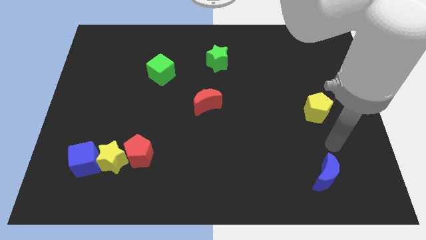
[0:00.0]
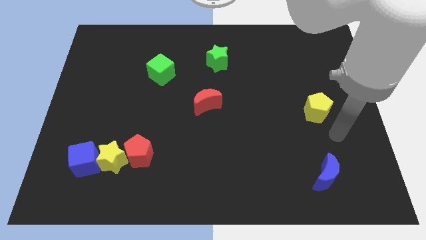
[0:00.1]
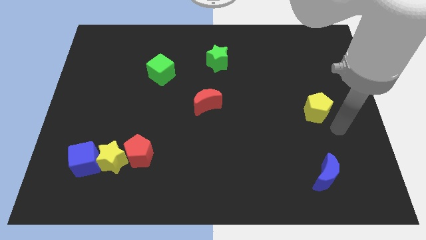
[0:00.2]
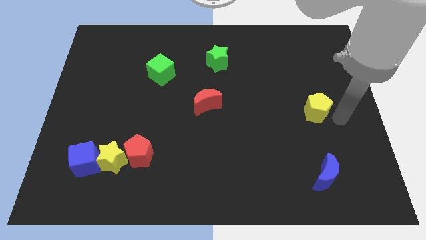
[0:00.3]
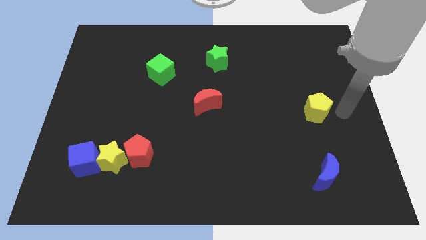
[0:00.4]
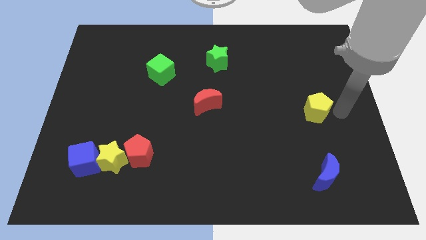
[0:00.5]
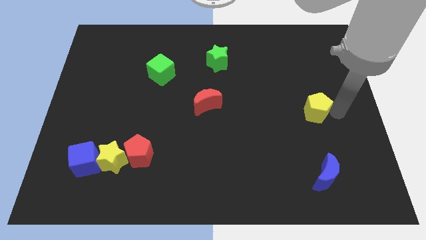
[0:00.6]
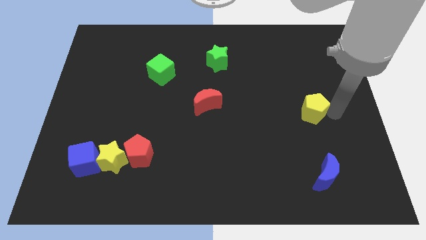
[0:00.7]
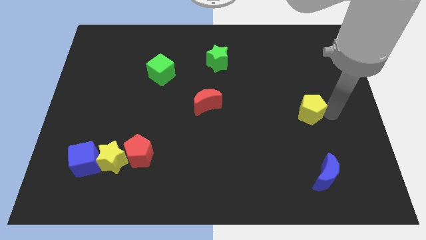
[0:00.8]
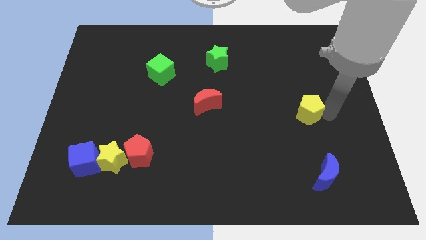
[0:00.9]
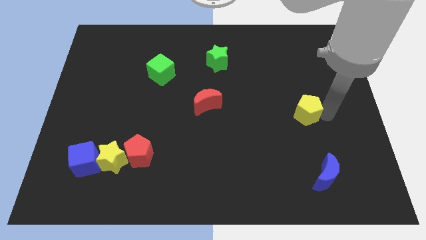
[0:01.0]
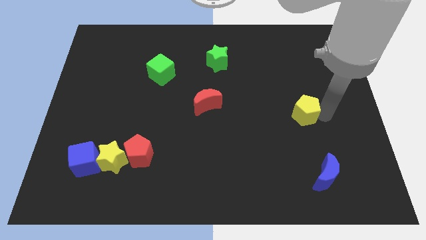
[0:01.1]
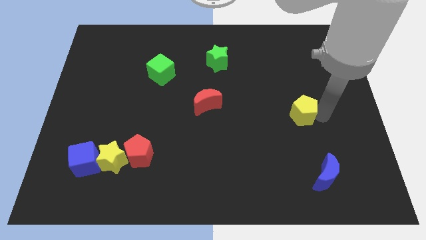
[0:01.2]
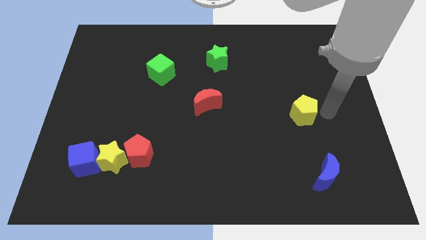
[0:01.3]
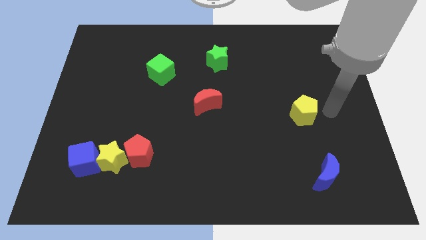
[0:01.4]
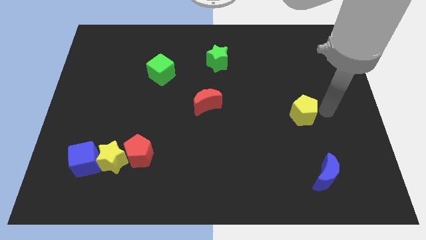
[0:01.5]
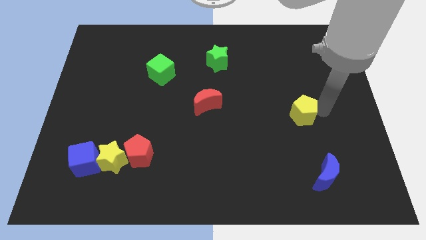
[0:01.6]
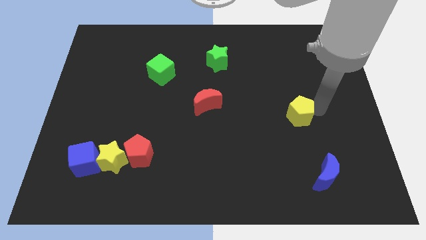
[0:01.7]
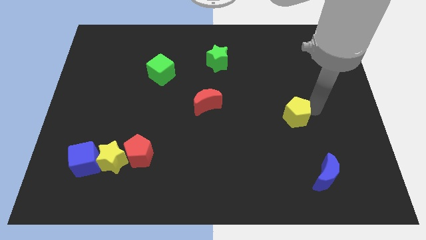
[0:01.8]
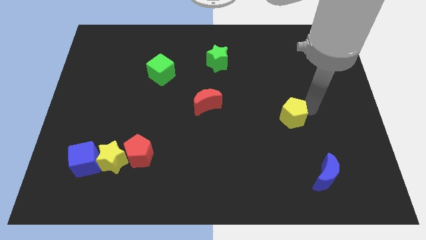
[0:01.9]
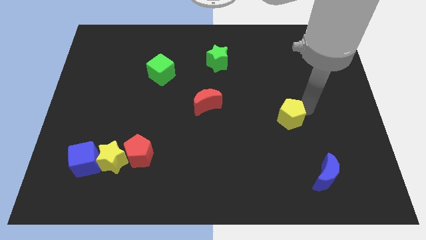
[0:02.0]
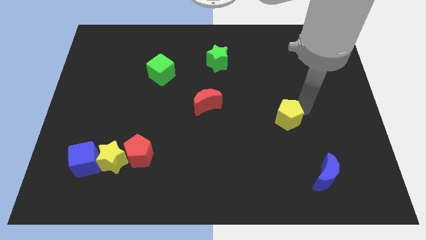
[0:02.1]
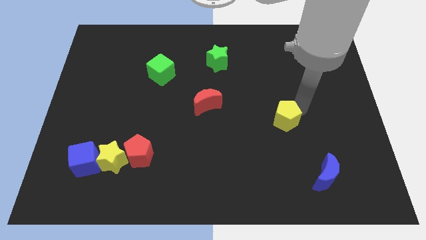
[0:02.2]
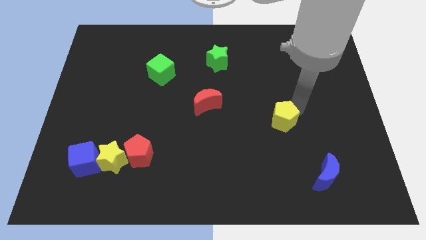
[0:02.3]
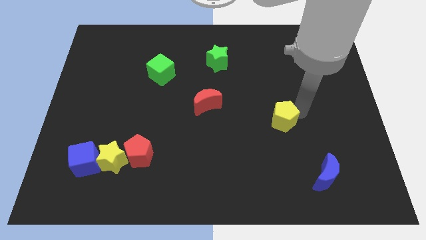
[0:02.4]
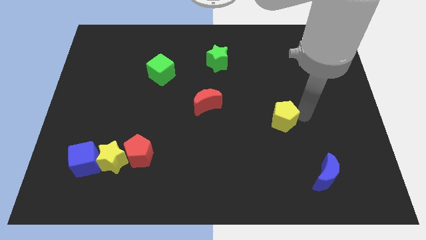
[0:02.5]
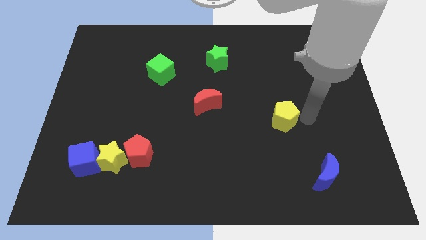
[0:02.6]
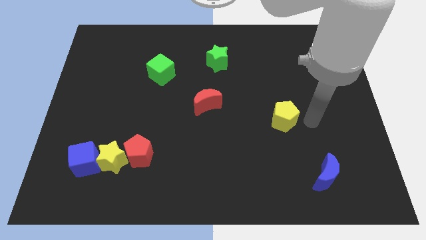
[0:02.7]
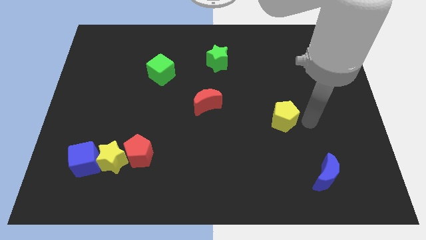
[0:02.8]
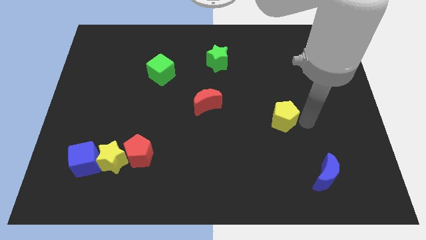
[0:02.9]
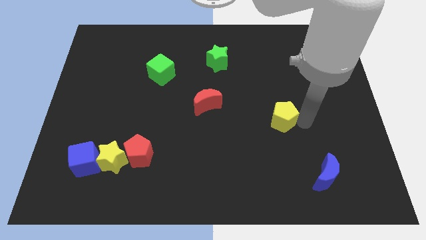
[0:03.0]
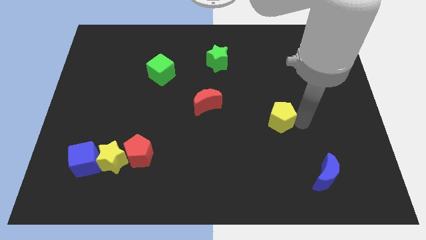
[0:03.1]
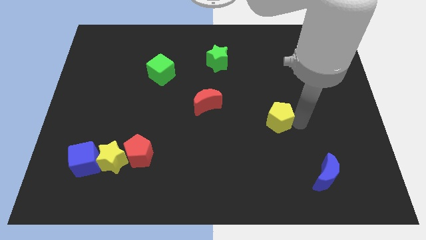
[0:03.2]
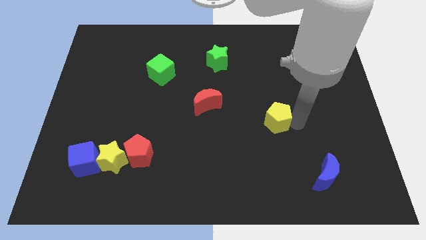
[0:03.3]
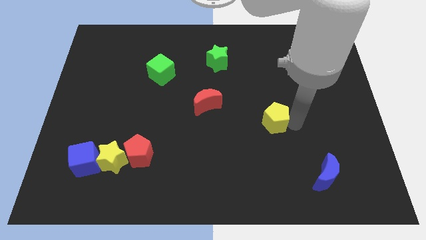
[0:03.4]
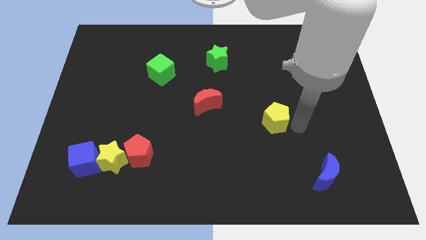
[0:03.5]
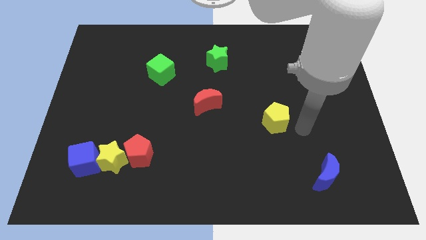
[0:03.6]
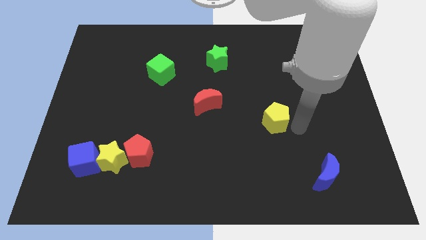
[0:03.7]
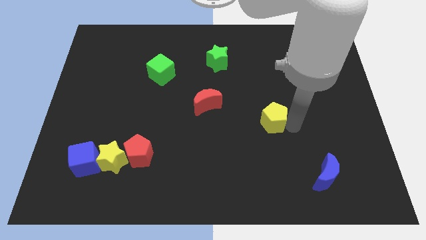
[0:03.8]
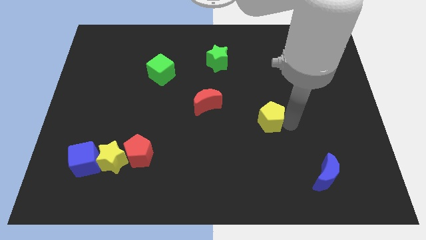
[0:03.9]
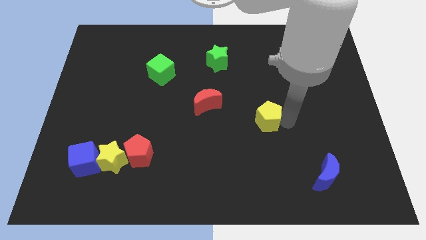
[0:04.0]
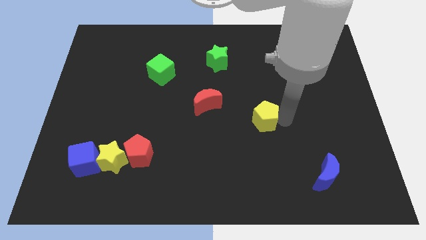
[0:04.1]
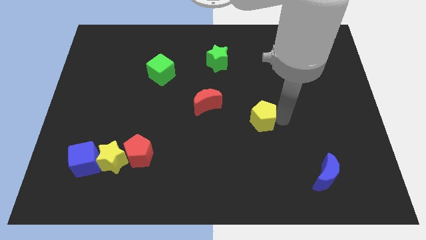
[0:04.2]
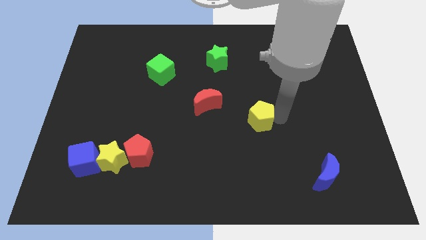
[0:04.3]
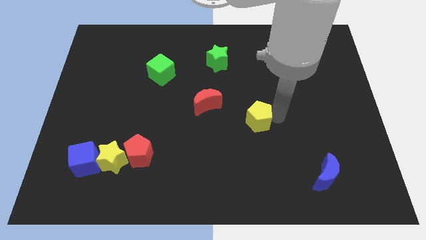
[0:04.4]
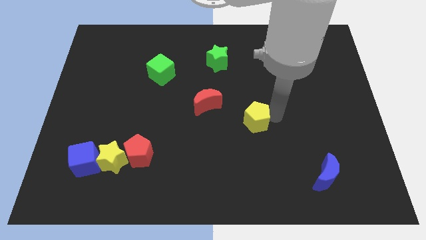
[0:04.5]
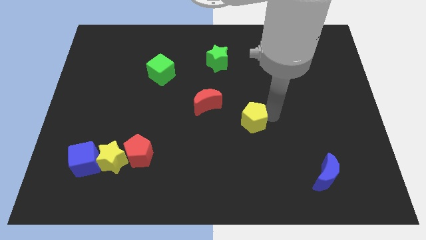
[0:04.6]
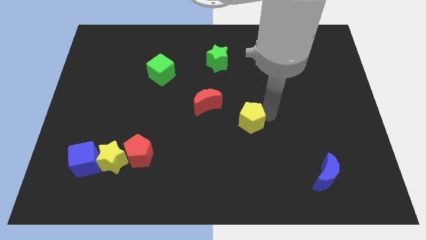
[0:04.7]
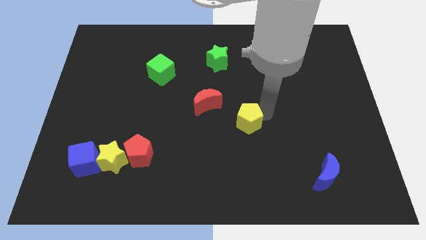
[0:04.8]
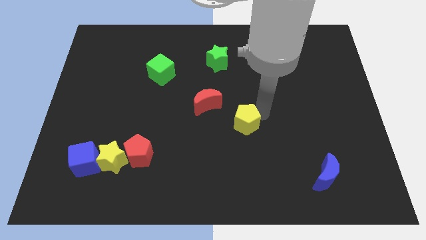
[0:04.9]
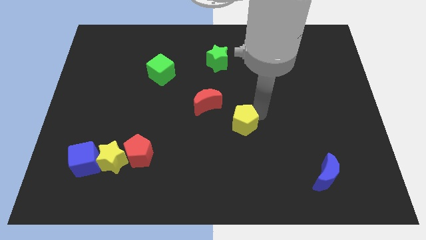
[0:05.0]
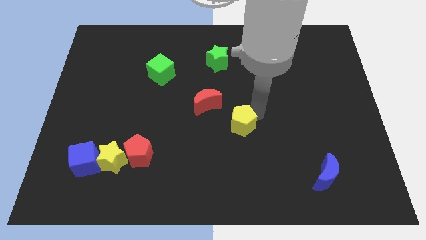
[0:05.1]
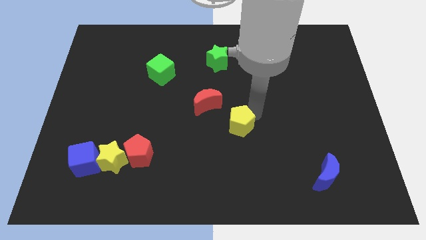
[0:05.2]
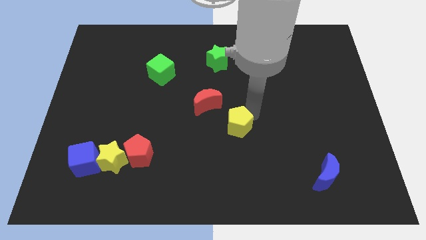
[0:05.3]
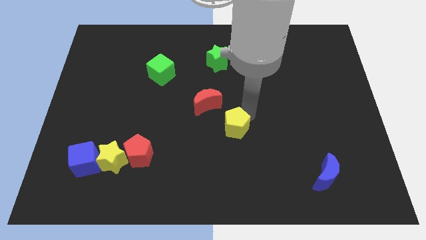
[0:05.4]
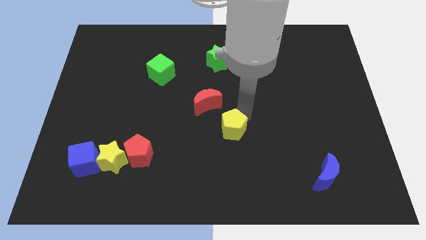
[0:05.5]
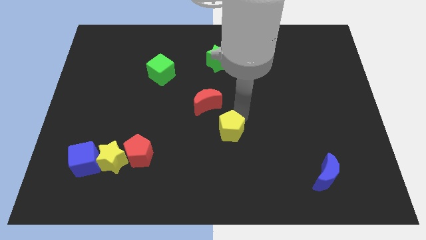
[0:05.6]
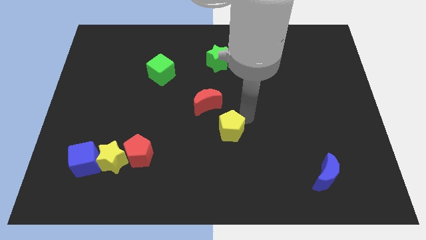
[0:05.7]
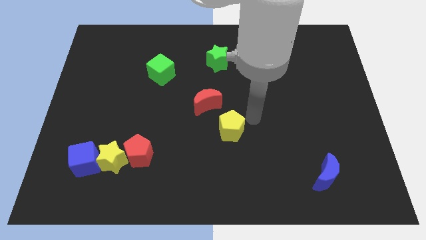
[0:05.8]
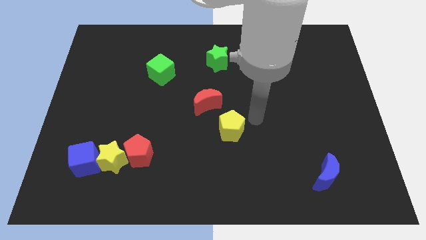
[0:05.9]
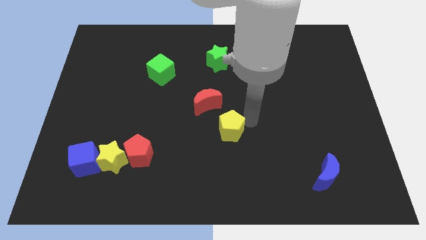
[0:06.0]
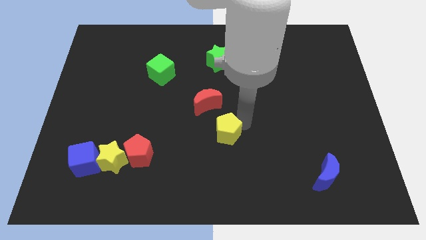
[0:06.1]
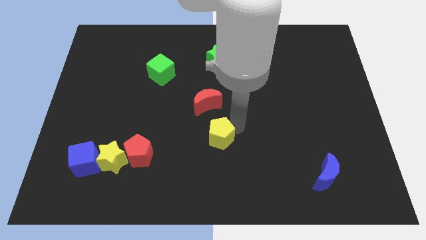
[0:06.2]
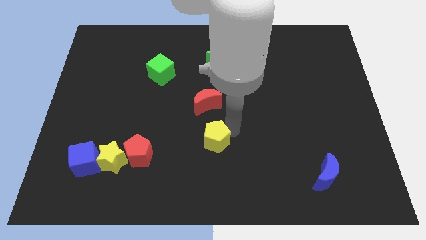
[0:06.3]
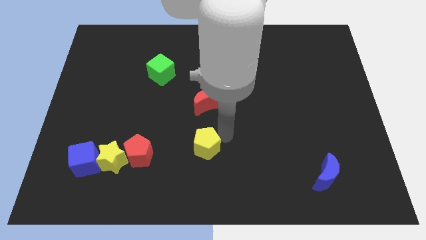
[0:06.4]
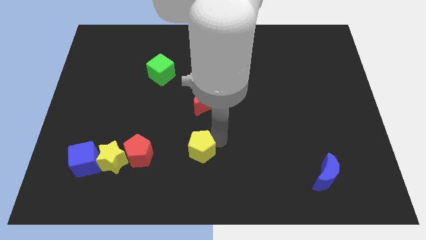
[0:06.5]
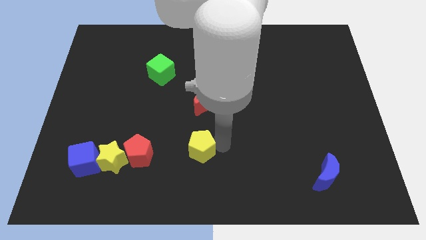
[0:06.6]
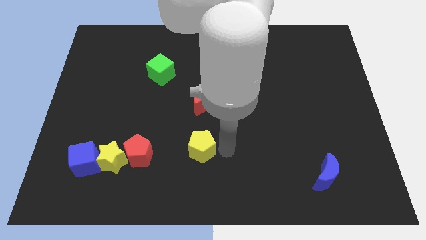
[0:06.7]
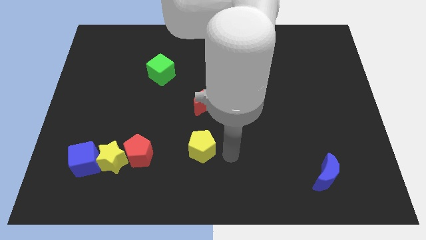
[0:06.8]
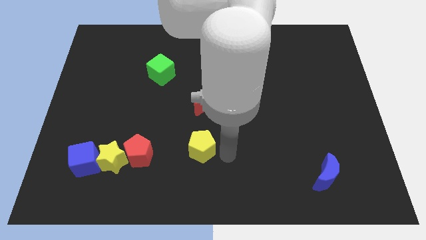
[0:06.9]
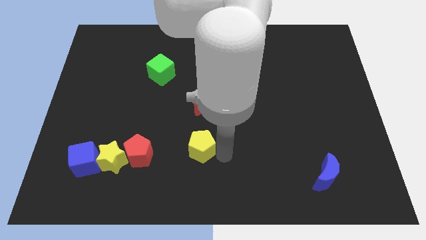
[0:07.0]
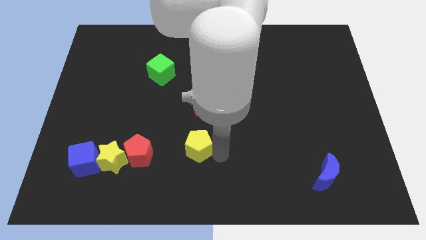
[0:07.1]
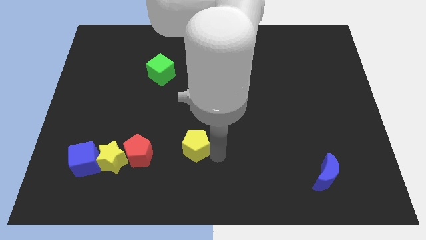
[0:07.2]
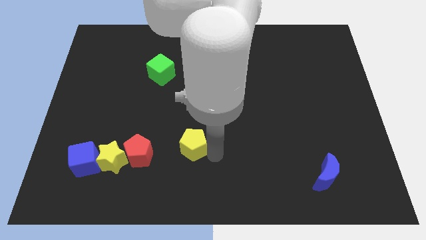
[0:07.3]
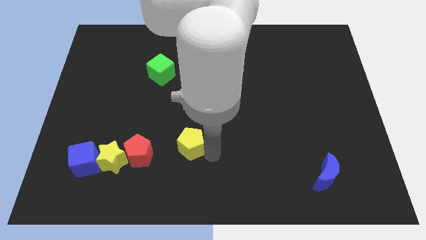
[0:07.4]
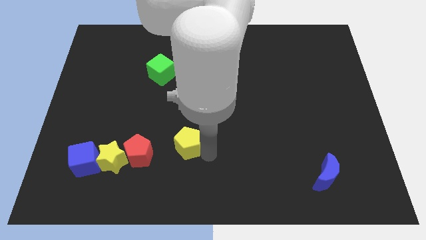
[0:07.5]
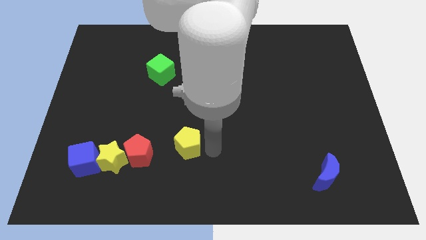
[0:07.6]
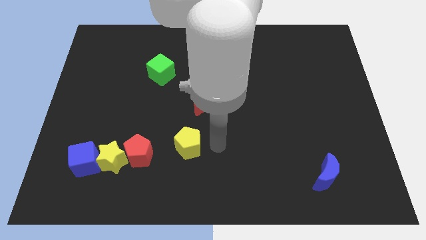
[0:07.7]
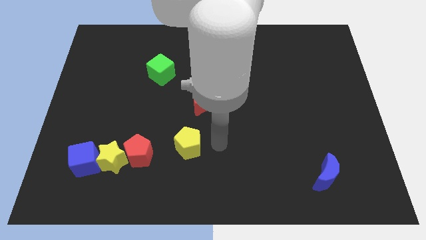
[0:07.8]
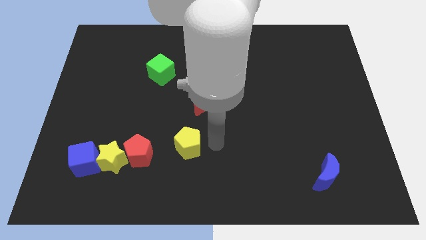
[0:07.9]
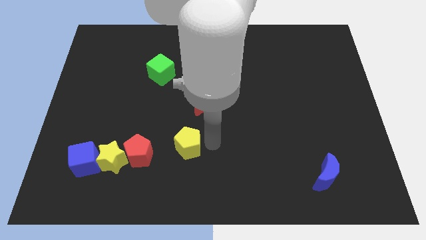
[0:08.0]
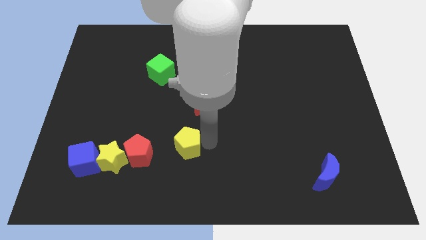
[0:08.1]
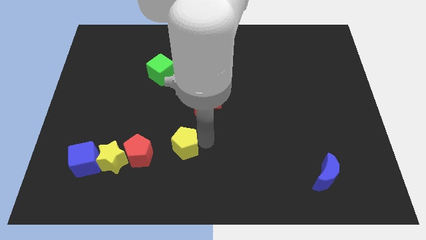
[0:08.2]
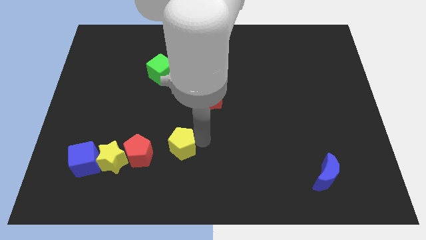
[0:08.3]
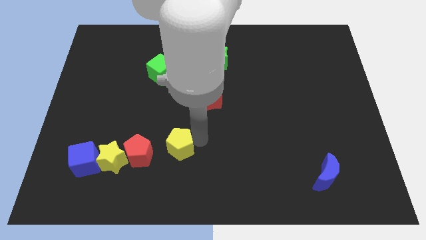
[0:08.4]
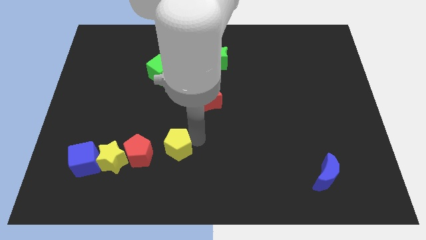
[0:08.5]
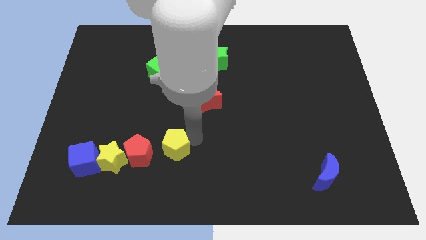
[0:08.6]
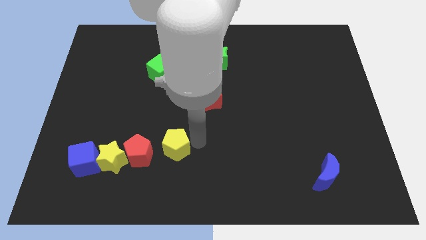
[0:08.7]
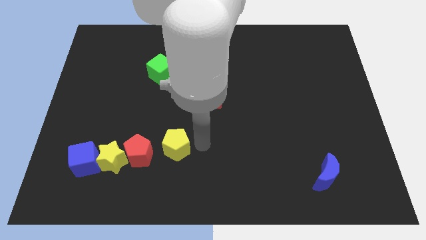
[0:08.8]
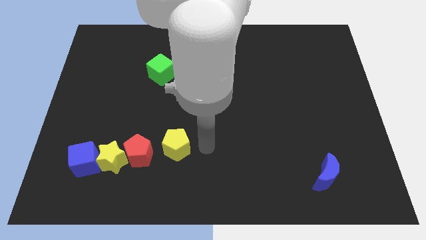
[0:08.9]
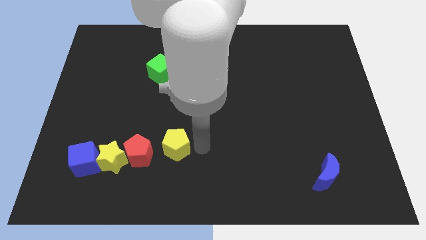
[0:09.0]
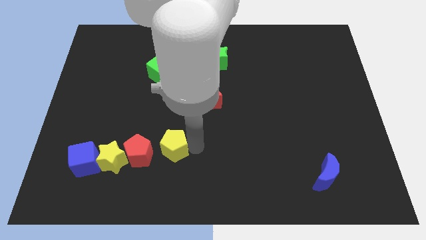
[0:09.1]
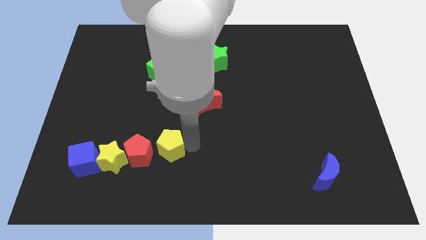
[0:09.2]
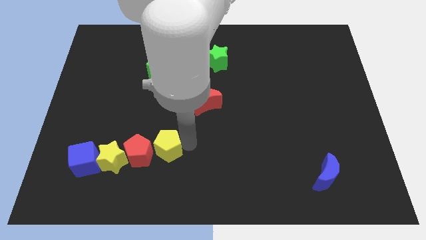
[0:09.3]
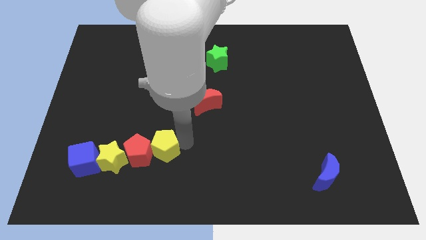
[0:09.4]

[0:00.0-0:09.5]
move the yellow pentagon towards the red pentagon
